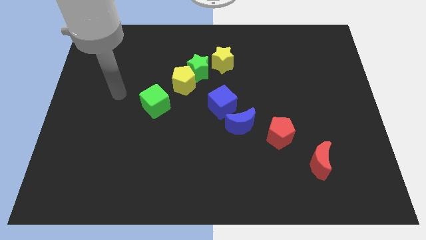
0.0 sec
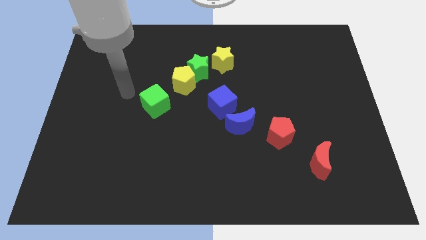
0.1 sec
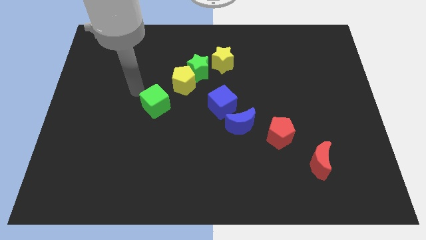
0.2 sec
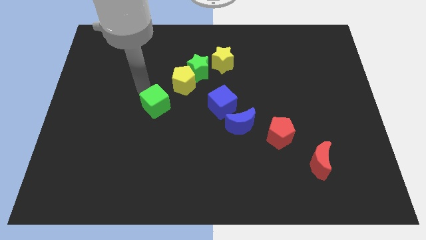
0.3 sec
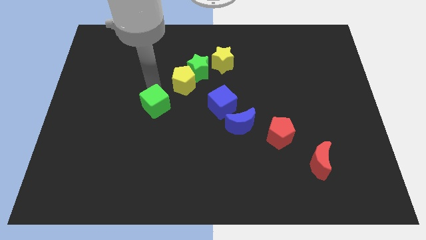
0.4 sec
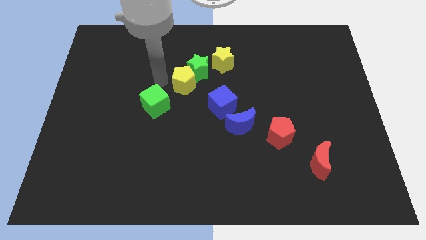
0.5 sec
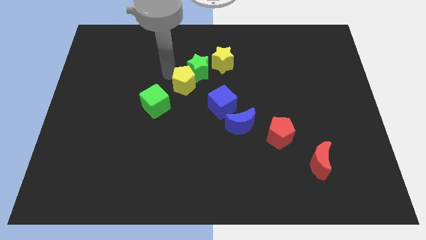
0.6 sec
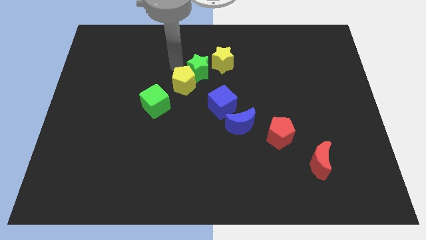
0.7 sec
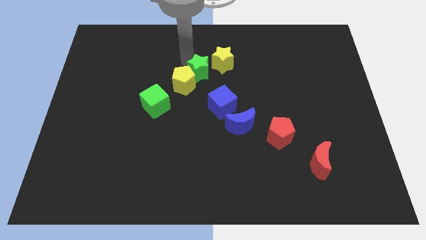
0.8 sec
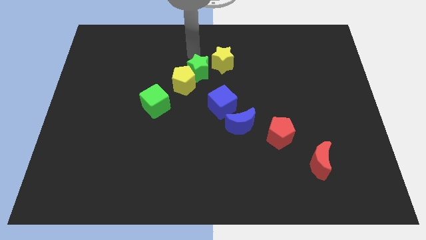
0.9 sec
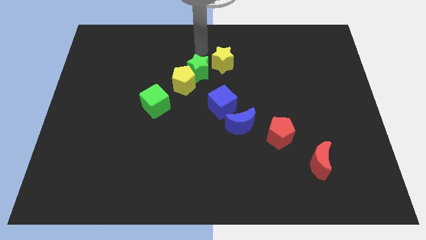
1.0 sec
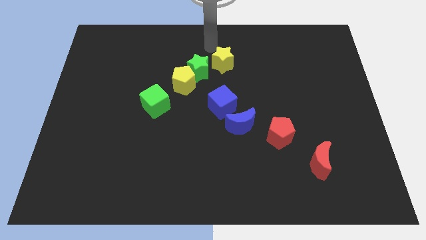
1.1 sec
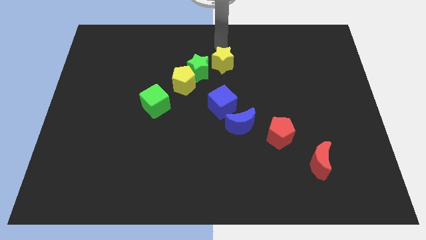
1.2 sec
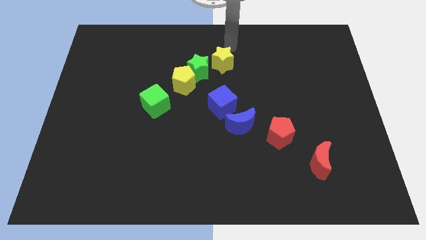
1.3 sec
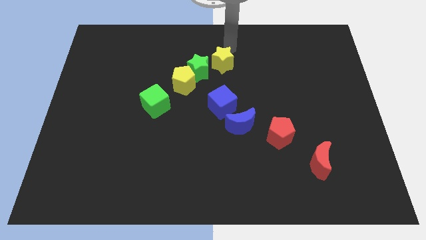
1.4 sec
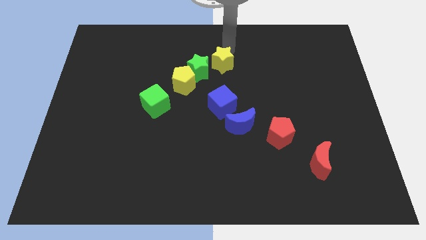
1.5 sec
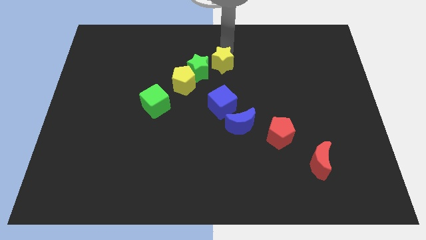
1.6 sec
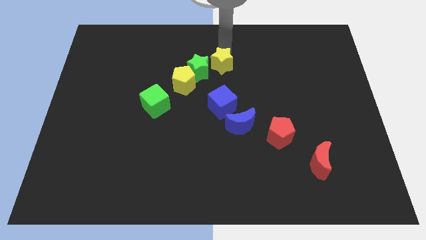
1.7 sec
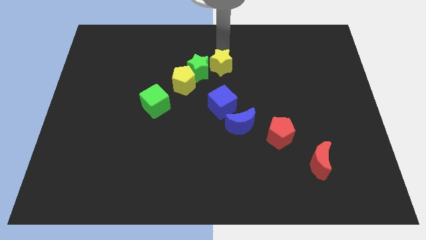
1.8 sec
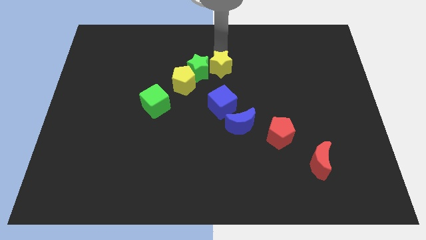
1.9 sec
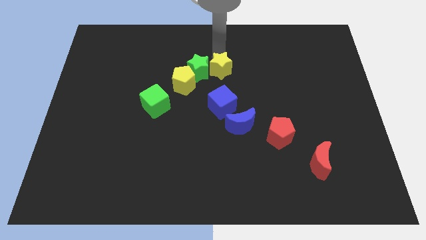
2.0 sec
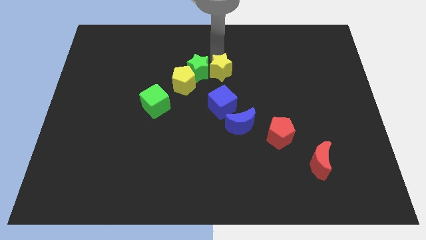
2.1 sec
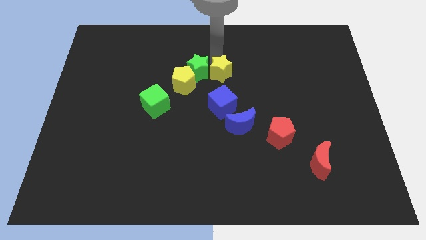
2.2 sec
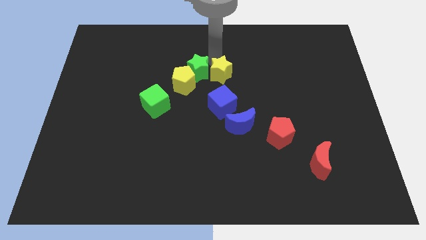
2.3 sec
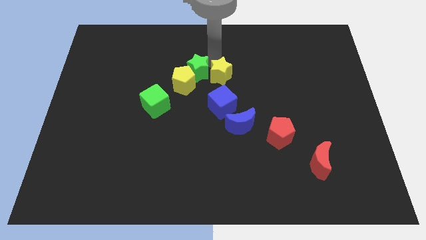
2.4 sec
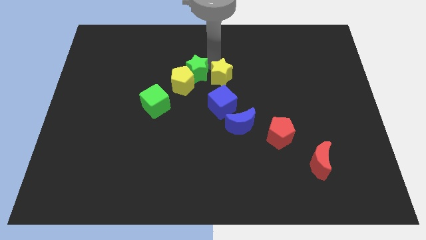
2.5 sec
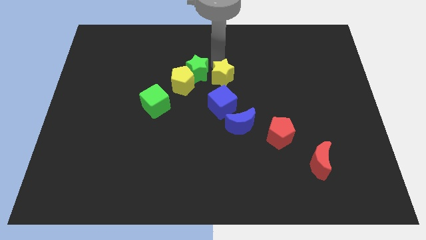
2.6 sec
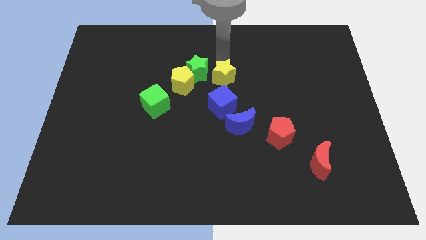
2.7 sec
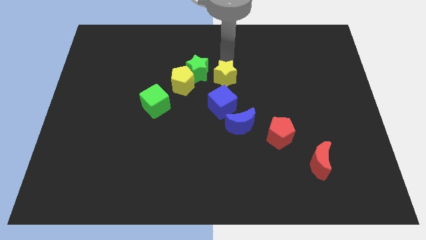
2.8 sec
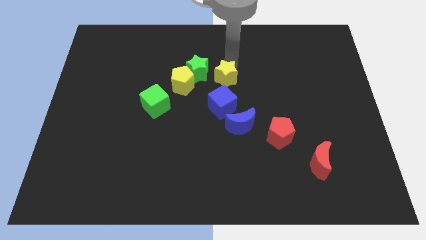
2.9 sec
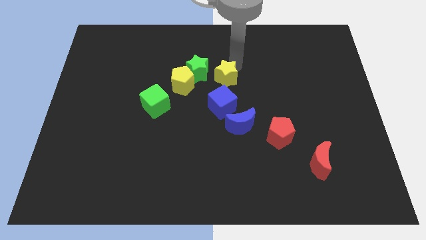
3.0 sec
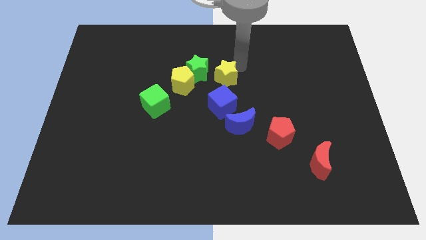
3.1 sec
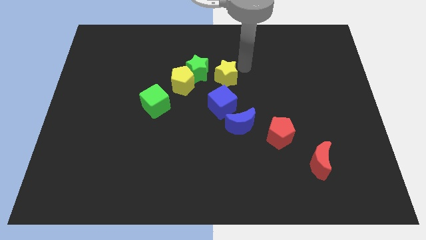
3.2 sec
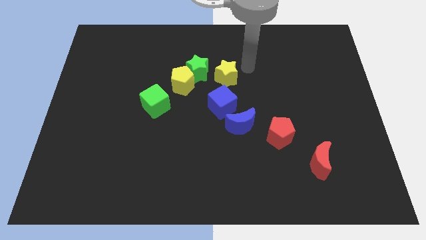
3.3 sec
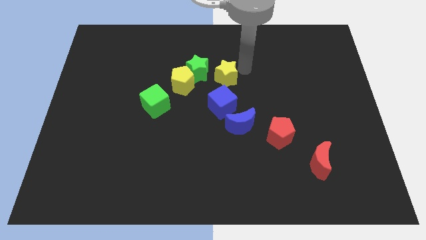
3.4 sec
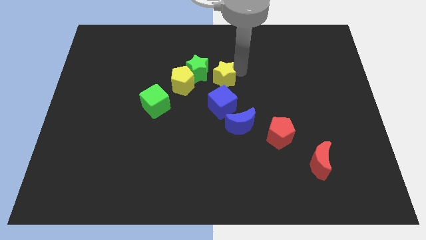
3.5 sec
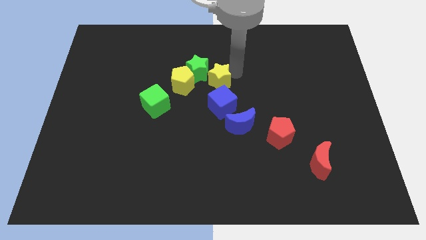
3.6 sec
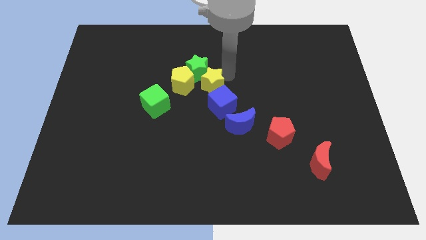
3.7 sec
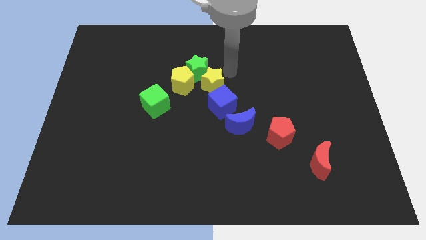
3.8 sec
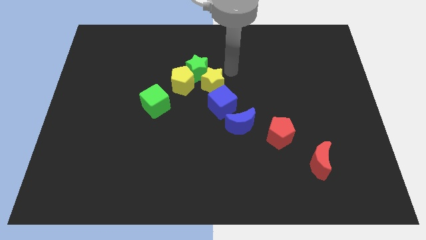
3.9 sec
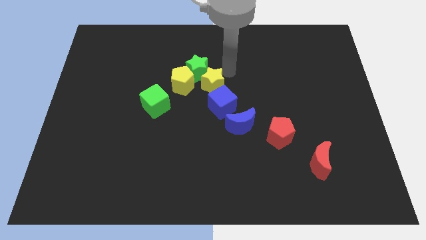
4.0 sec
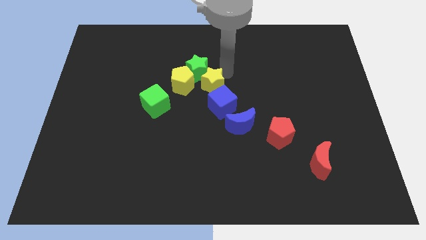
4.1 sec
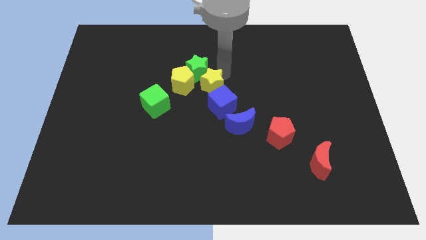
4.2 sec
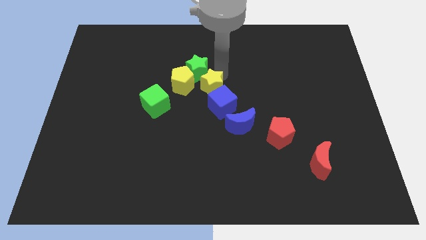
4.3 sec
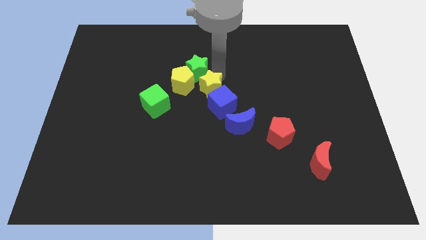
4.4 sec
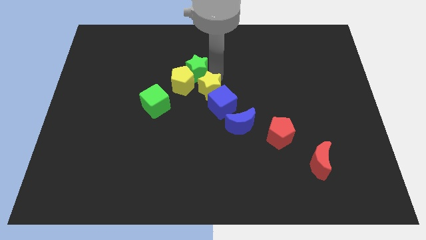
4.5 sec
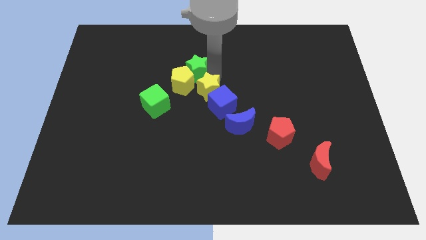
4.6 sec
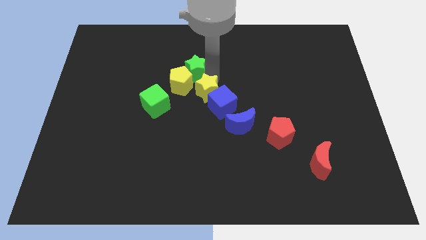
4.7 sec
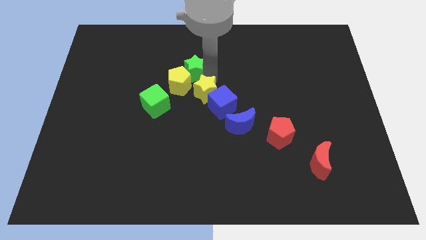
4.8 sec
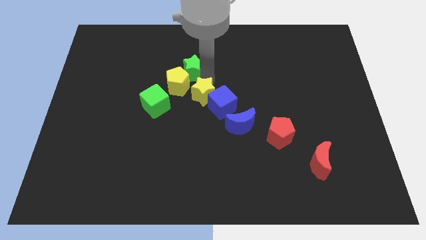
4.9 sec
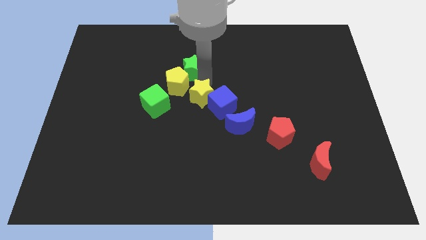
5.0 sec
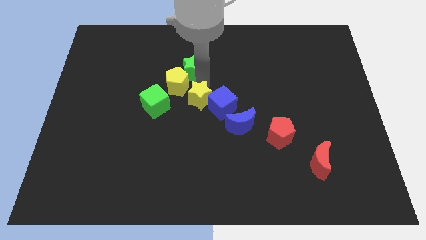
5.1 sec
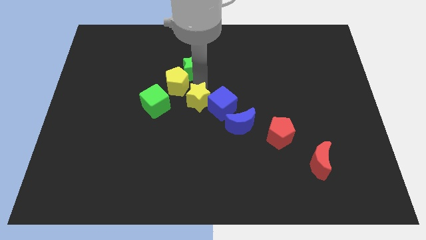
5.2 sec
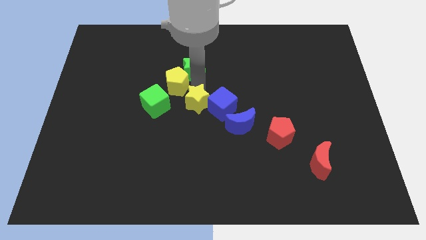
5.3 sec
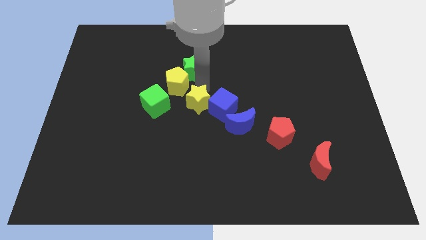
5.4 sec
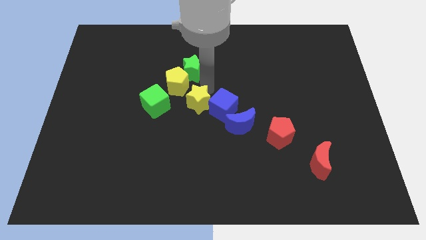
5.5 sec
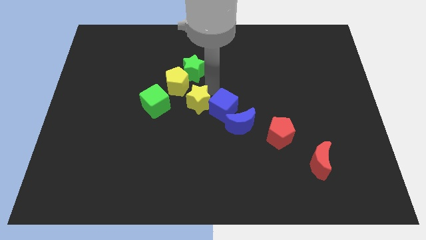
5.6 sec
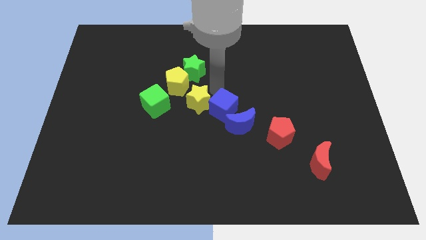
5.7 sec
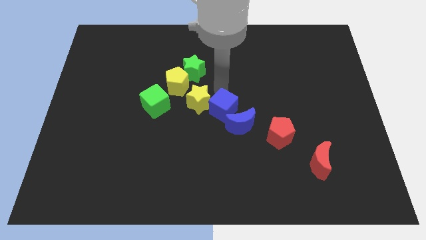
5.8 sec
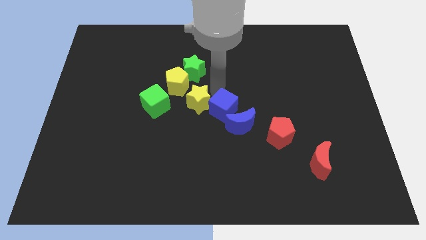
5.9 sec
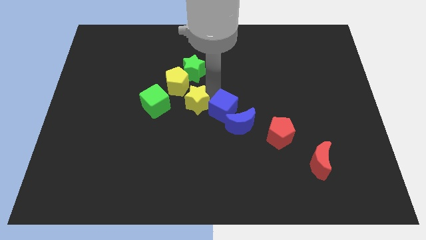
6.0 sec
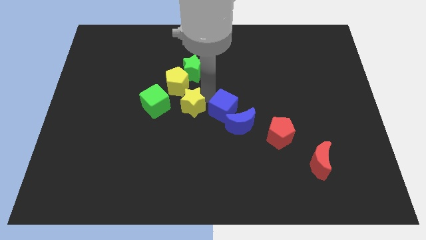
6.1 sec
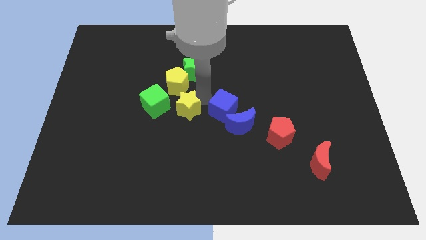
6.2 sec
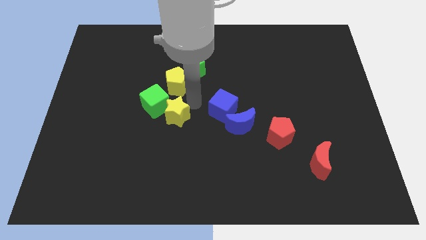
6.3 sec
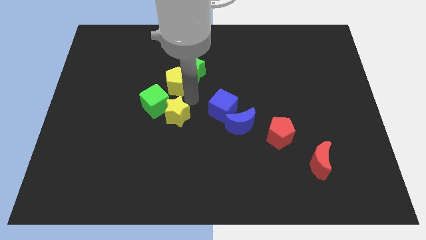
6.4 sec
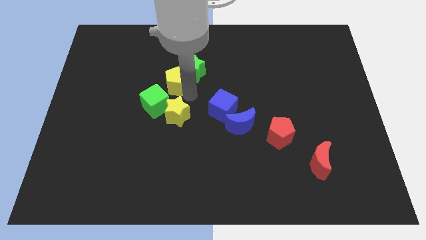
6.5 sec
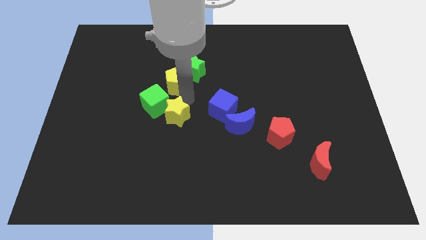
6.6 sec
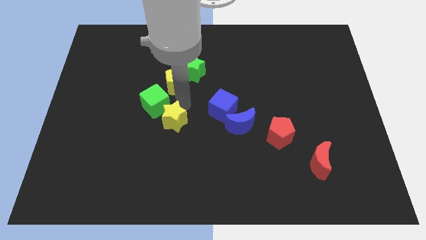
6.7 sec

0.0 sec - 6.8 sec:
move the yellow star down and then left

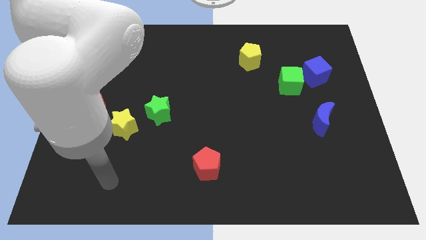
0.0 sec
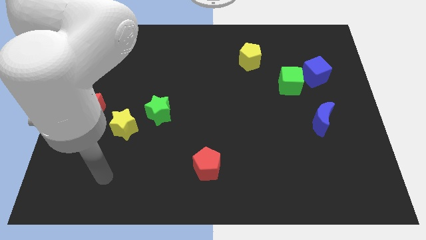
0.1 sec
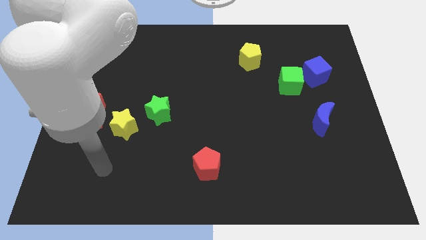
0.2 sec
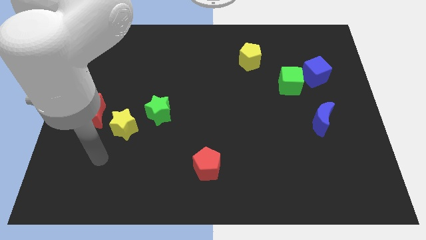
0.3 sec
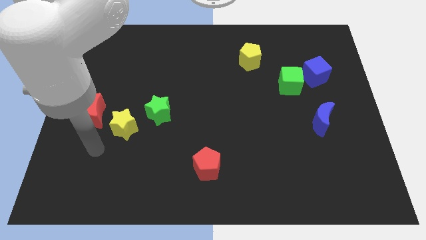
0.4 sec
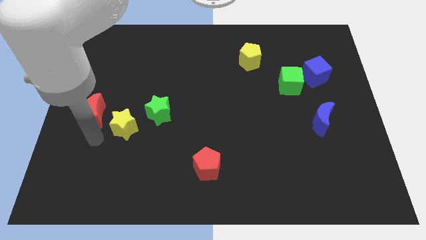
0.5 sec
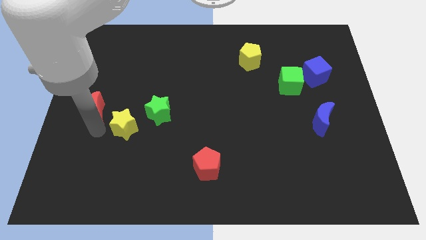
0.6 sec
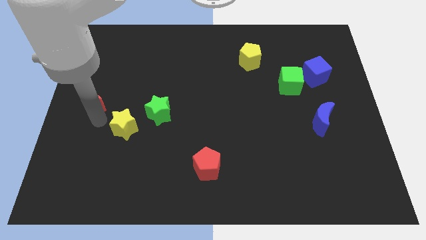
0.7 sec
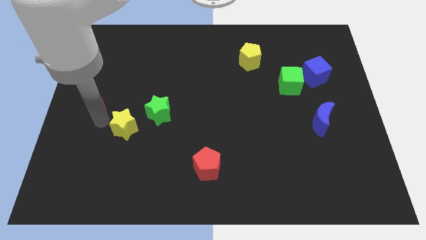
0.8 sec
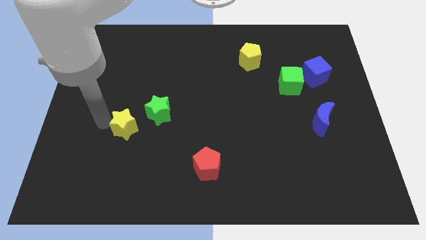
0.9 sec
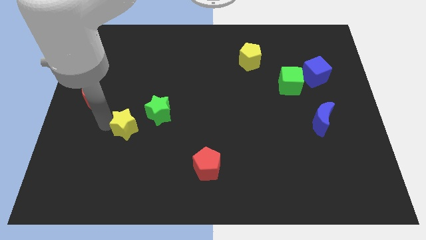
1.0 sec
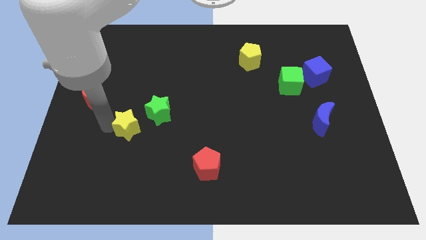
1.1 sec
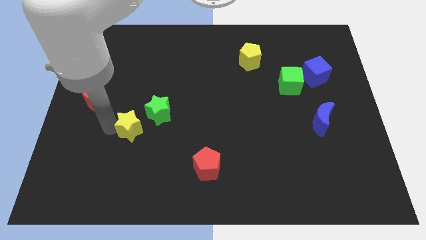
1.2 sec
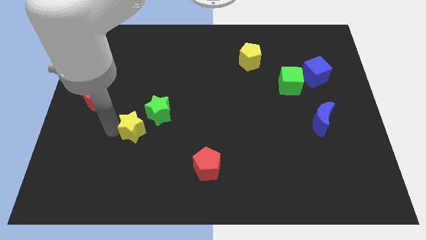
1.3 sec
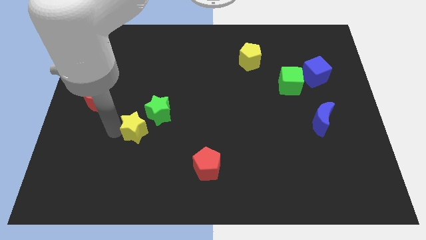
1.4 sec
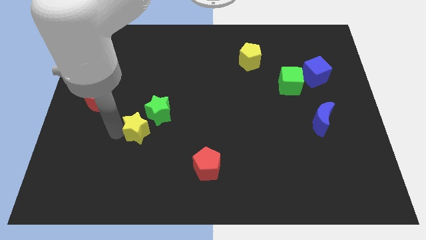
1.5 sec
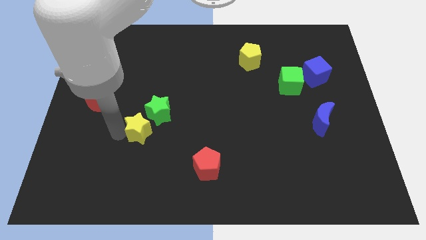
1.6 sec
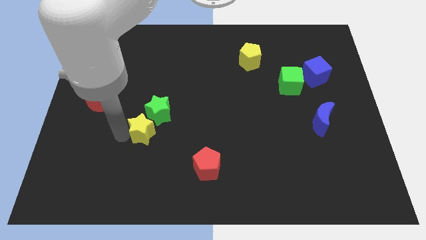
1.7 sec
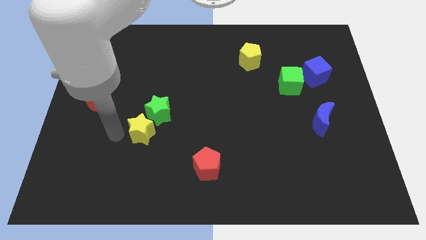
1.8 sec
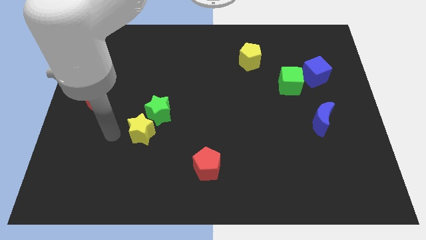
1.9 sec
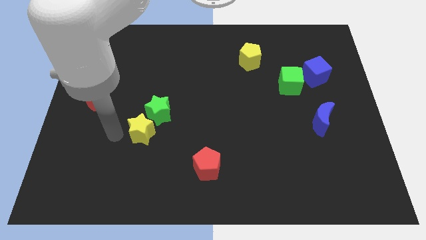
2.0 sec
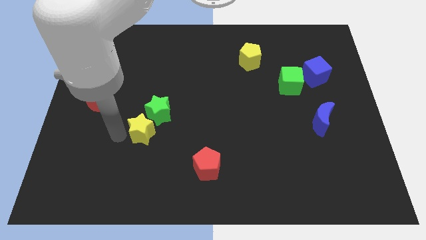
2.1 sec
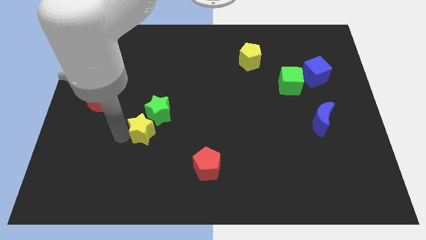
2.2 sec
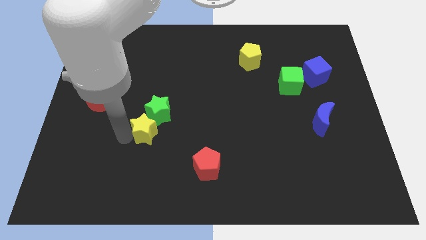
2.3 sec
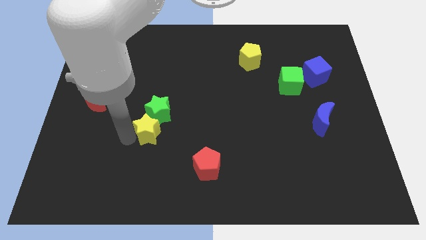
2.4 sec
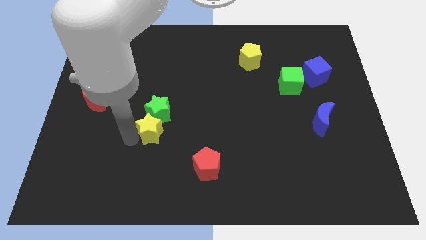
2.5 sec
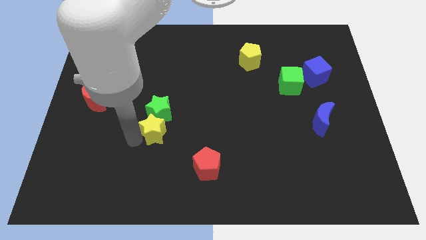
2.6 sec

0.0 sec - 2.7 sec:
slightly slide the yellow star to the right
